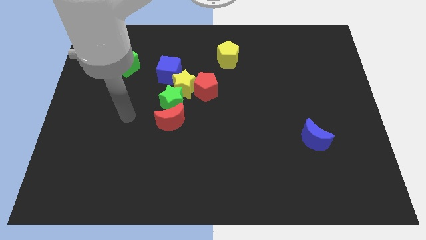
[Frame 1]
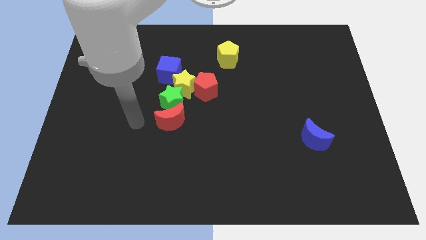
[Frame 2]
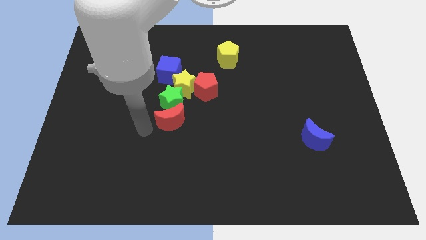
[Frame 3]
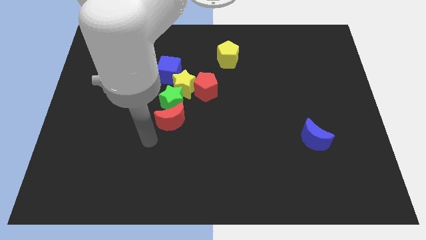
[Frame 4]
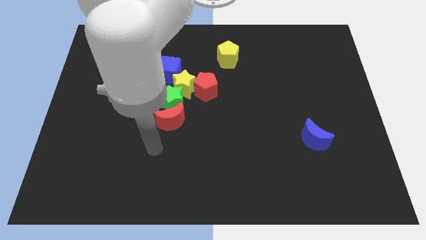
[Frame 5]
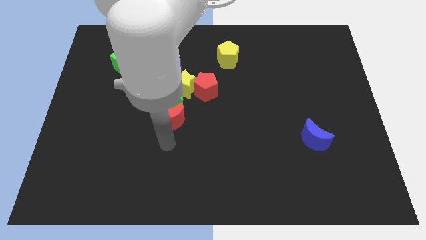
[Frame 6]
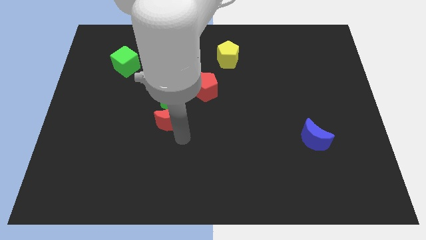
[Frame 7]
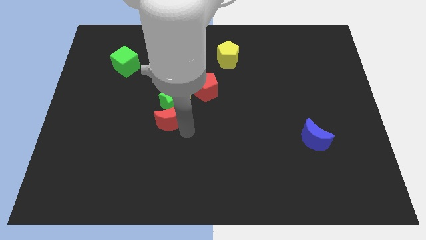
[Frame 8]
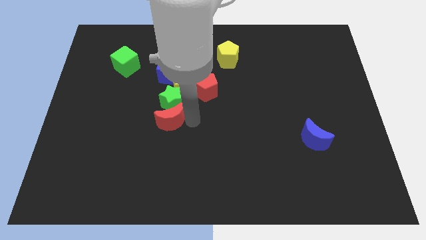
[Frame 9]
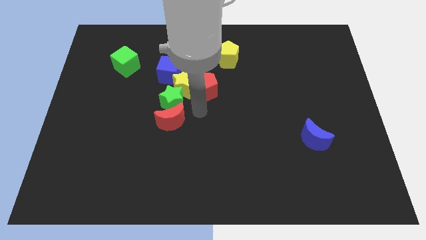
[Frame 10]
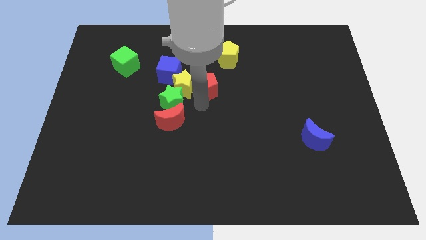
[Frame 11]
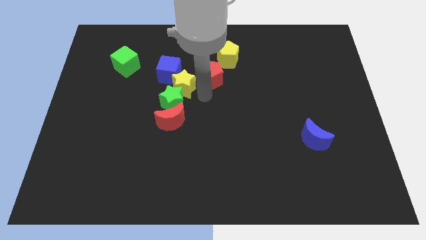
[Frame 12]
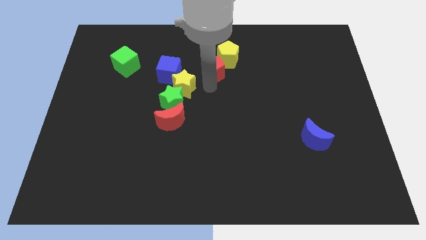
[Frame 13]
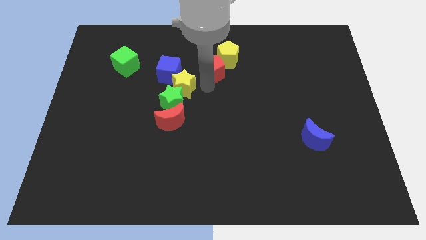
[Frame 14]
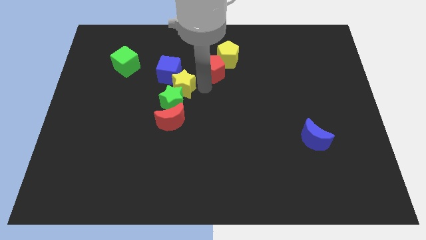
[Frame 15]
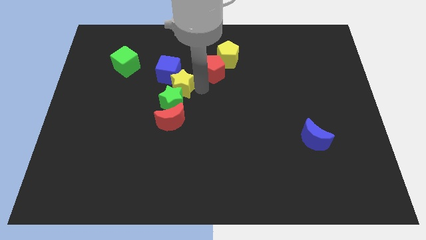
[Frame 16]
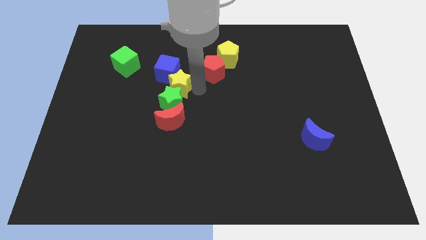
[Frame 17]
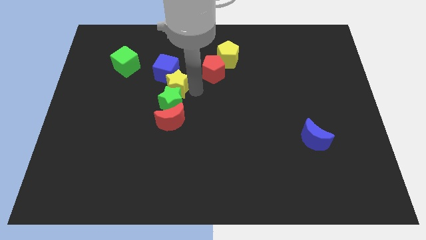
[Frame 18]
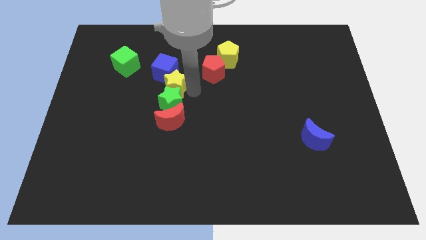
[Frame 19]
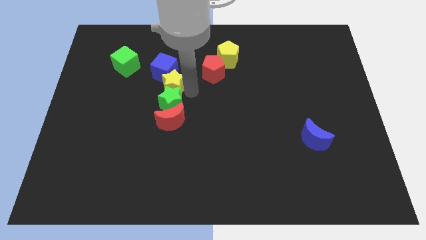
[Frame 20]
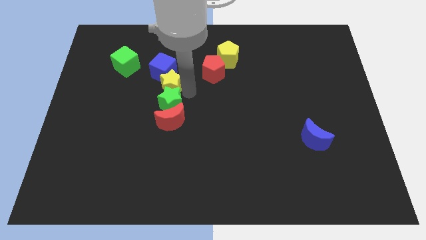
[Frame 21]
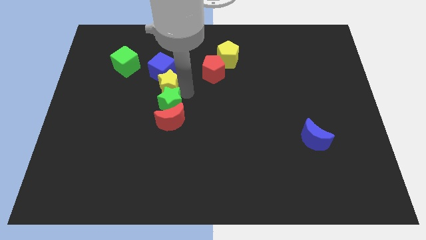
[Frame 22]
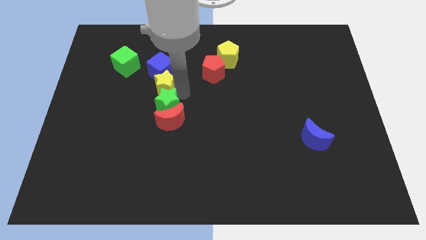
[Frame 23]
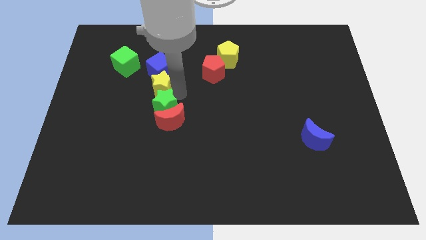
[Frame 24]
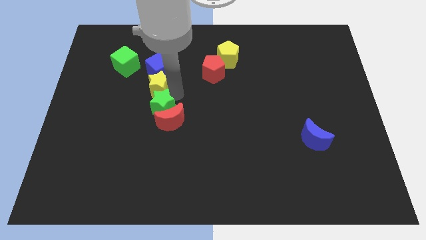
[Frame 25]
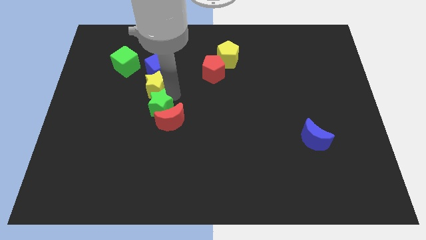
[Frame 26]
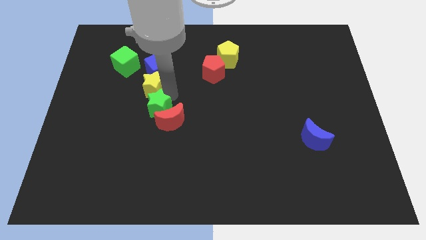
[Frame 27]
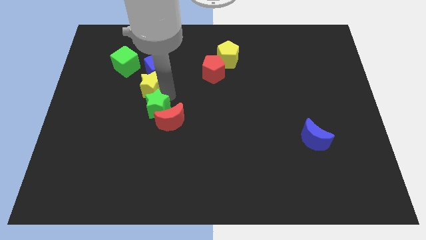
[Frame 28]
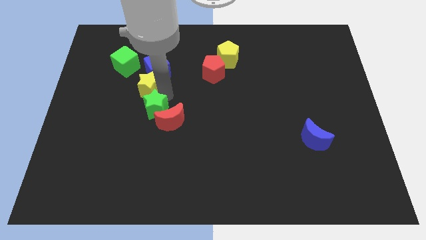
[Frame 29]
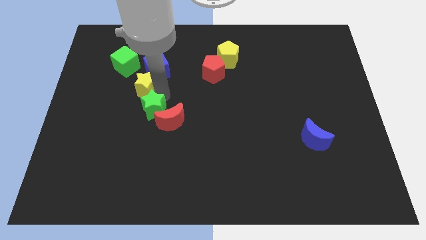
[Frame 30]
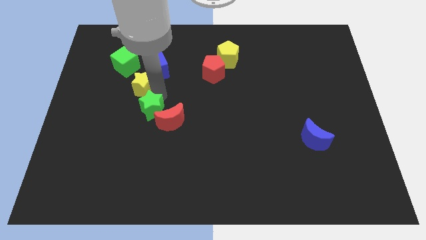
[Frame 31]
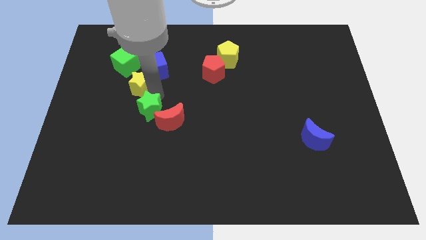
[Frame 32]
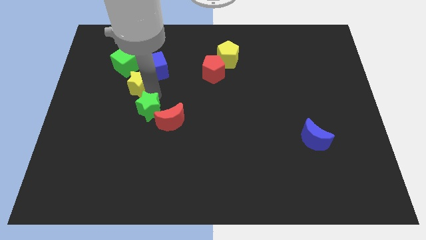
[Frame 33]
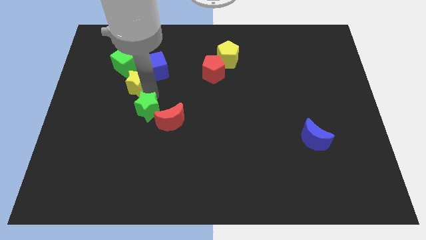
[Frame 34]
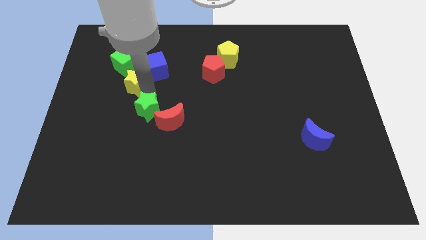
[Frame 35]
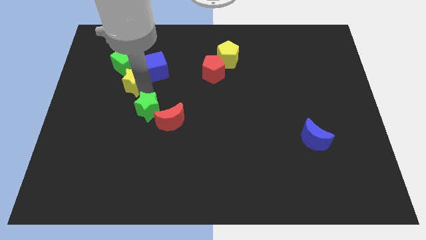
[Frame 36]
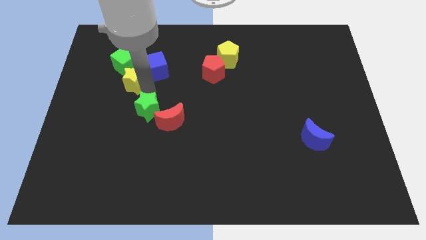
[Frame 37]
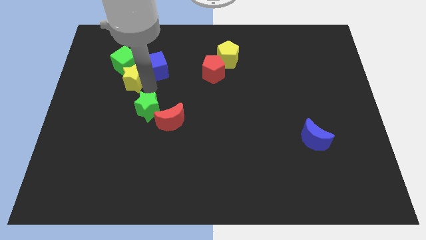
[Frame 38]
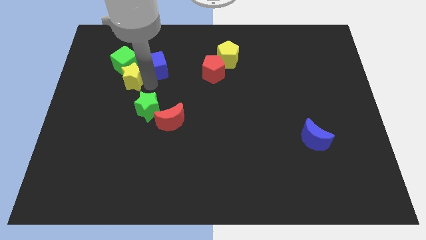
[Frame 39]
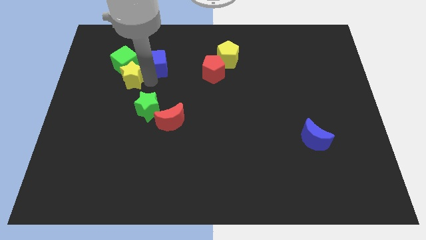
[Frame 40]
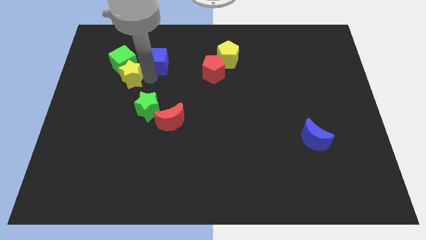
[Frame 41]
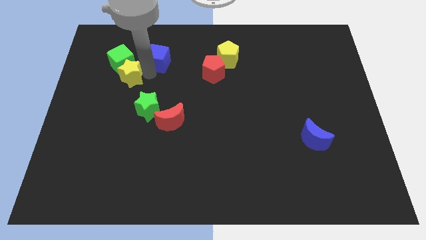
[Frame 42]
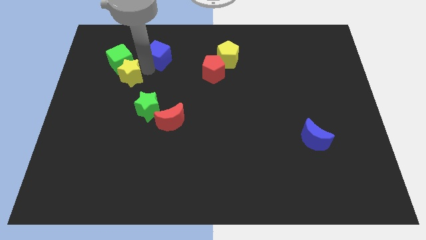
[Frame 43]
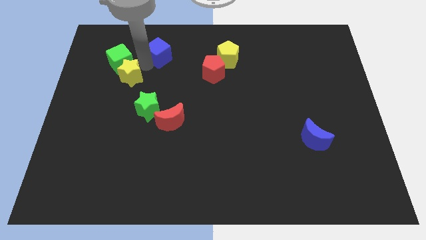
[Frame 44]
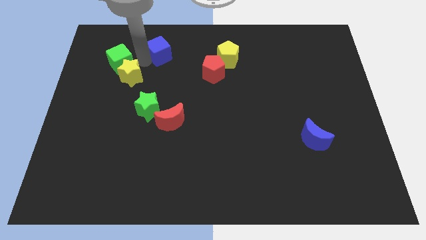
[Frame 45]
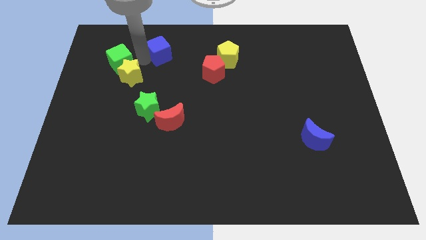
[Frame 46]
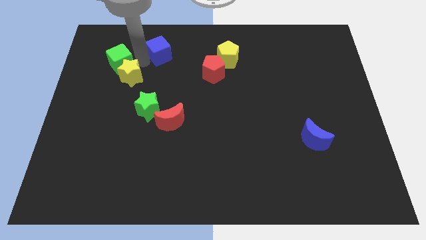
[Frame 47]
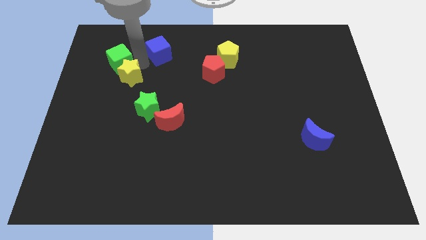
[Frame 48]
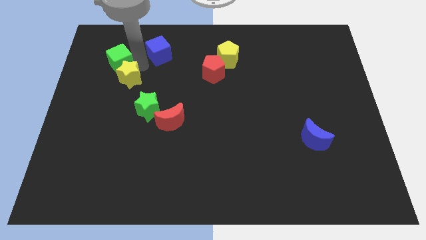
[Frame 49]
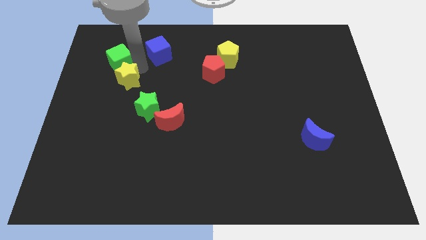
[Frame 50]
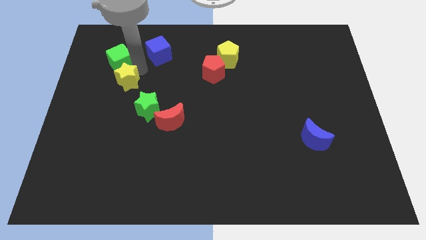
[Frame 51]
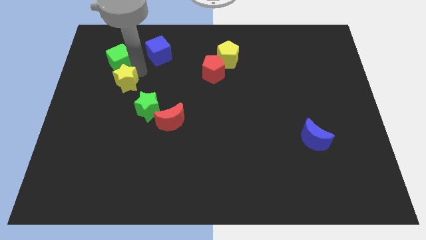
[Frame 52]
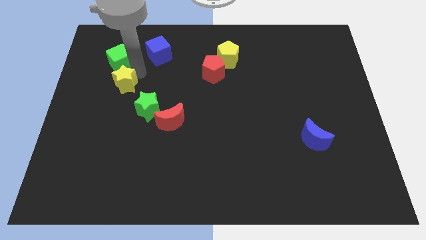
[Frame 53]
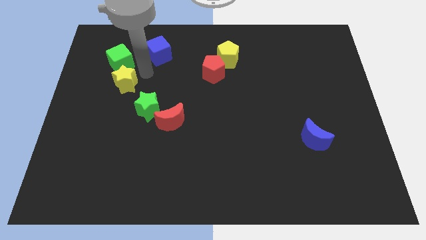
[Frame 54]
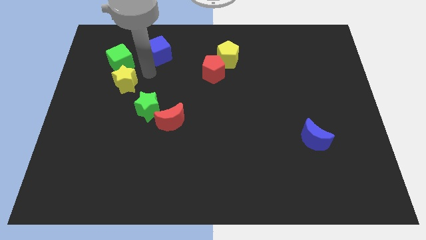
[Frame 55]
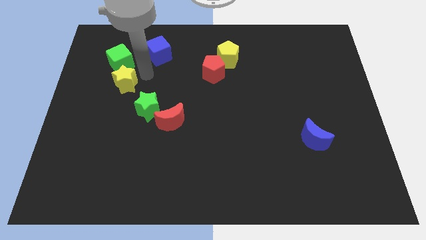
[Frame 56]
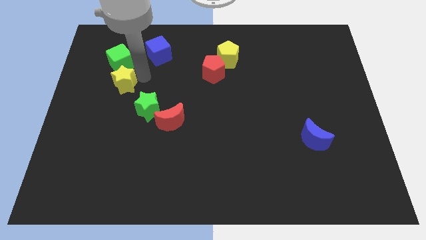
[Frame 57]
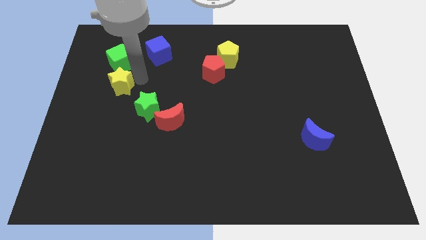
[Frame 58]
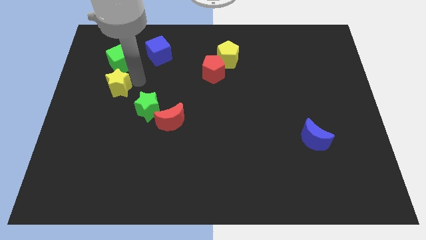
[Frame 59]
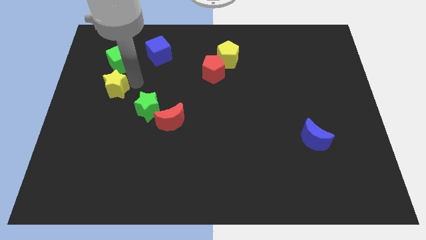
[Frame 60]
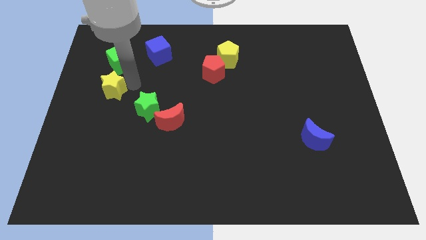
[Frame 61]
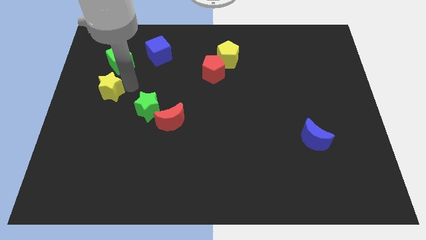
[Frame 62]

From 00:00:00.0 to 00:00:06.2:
move the yellow star to the left side of the board
